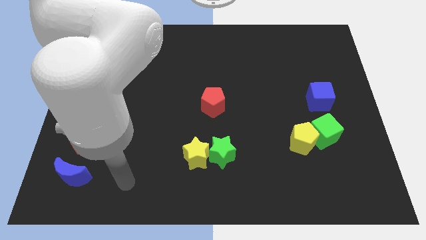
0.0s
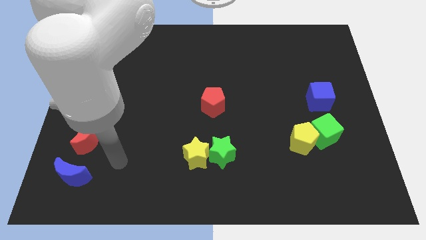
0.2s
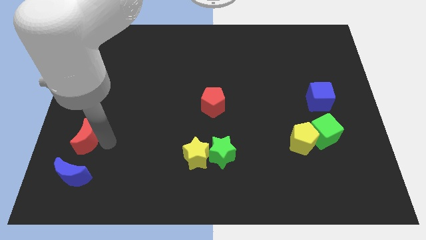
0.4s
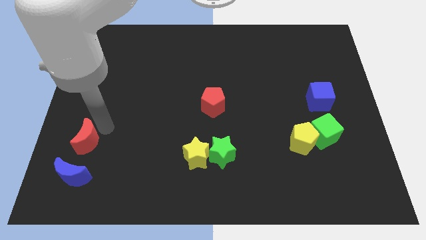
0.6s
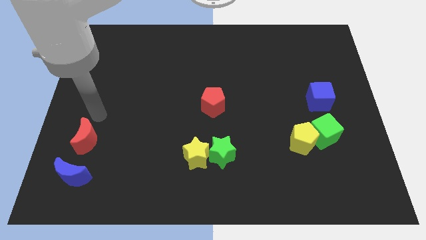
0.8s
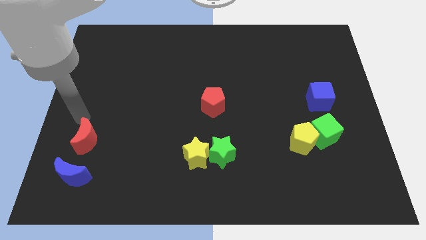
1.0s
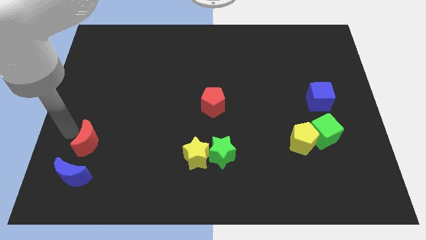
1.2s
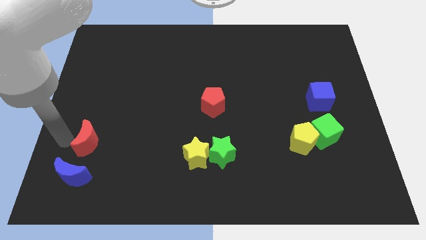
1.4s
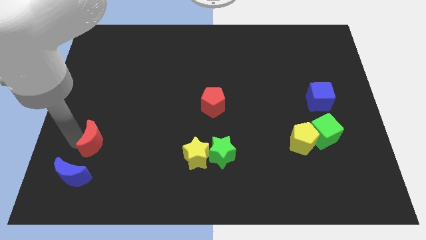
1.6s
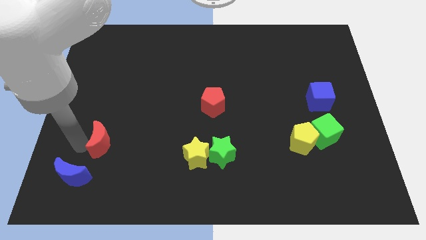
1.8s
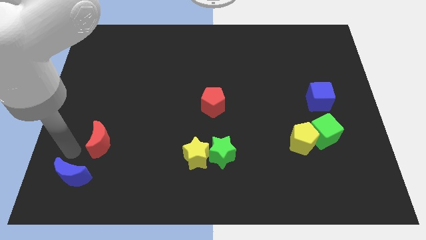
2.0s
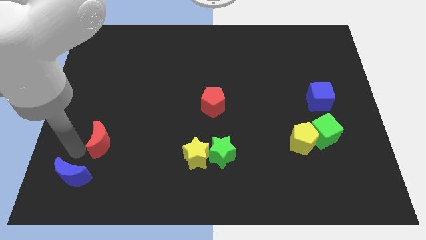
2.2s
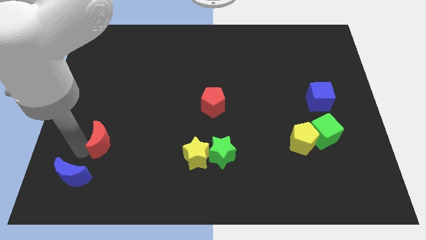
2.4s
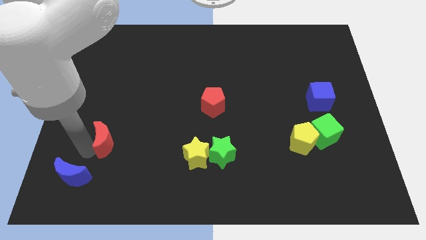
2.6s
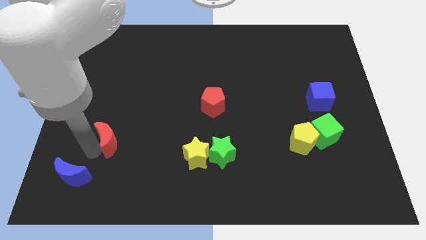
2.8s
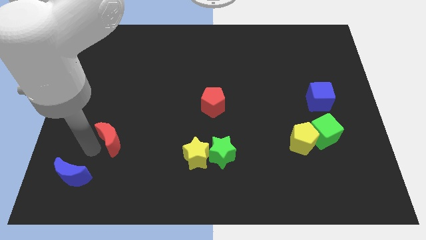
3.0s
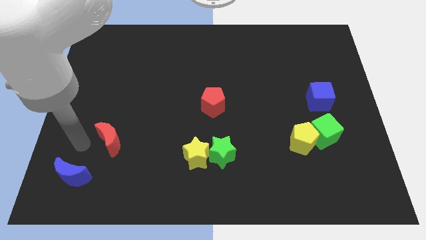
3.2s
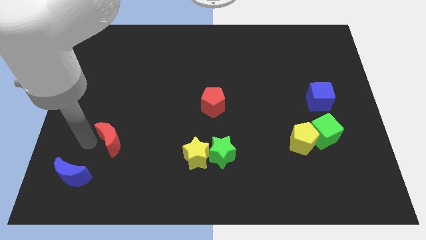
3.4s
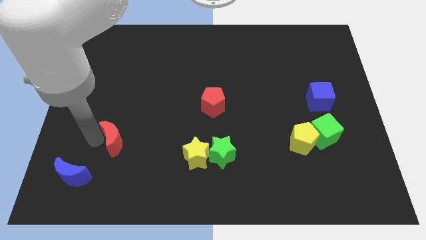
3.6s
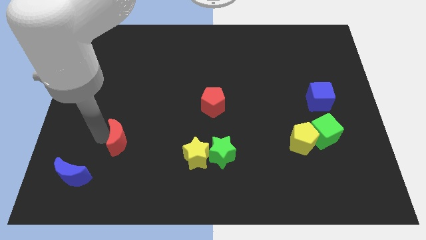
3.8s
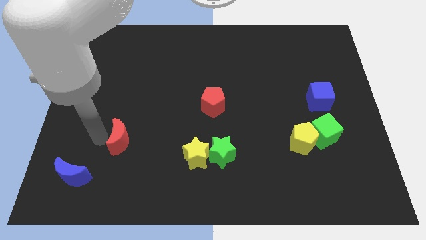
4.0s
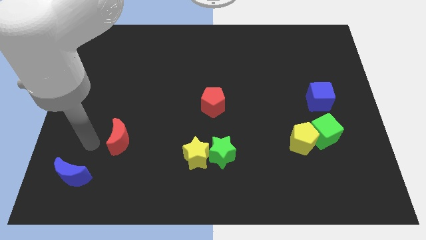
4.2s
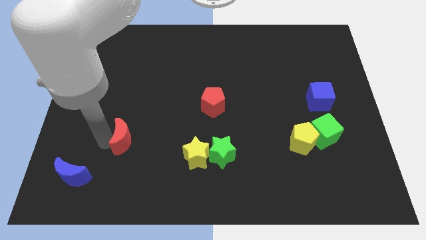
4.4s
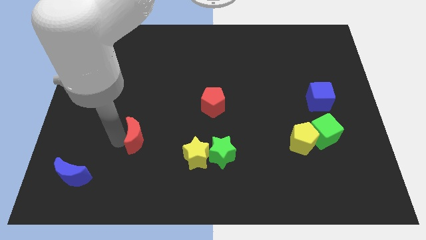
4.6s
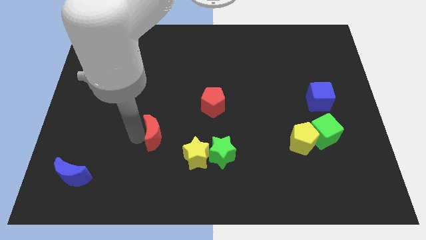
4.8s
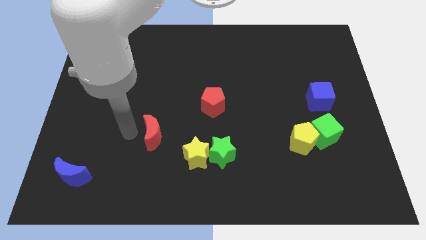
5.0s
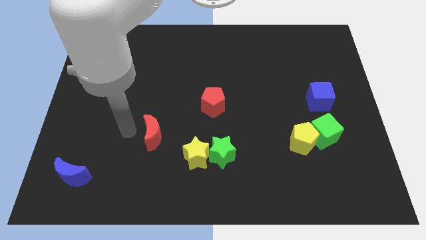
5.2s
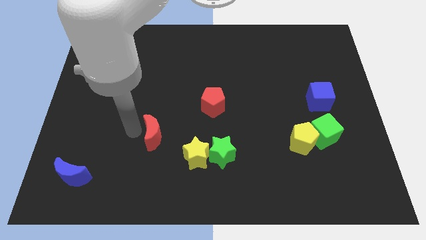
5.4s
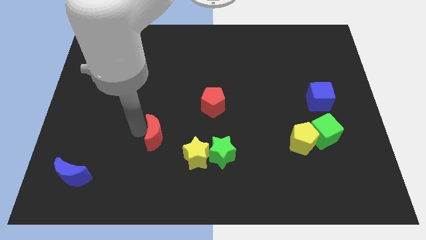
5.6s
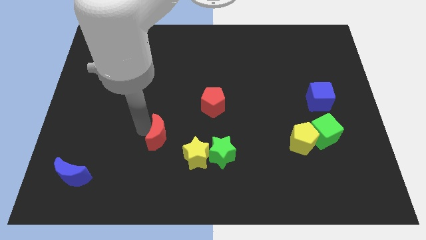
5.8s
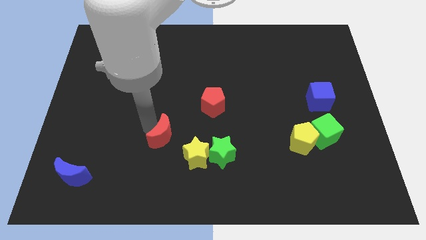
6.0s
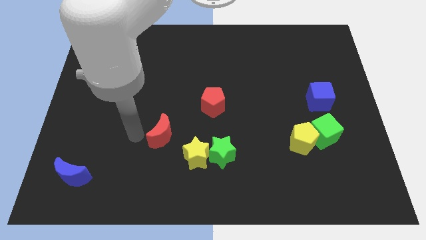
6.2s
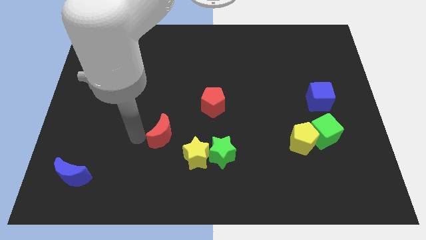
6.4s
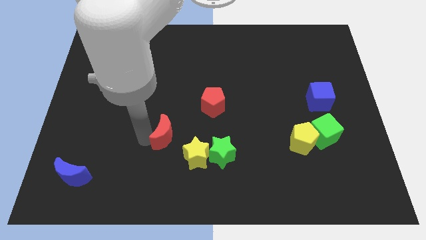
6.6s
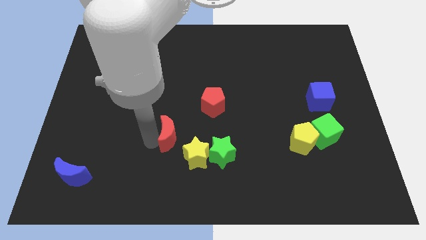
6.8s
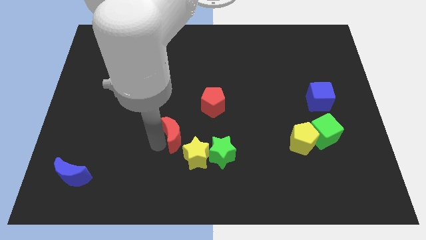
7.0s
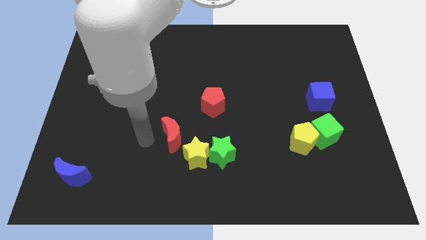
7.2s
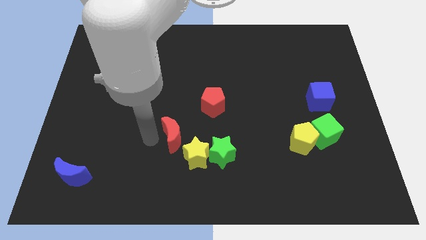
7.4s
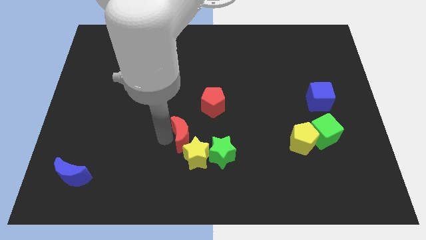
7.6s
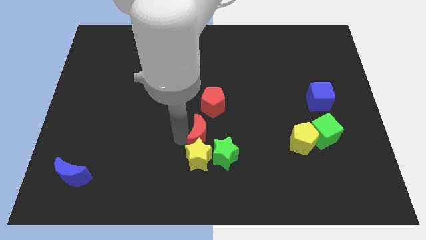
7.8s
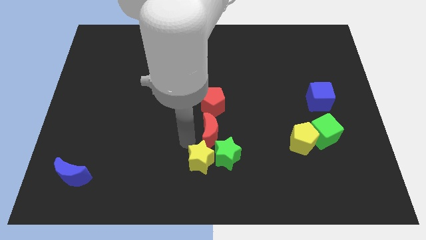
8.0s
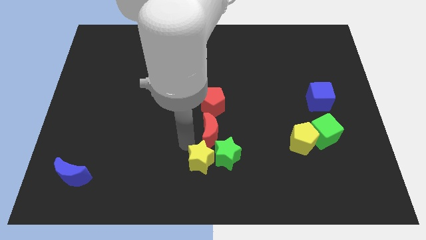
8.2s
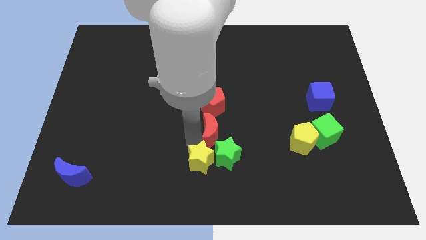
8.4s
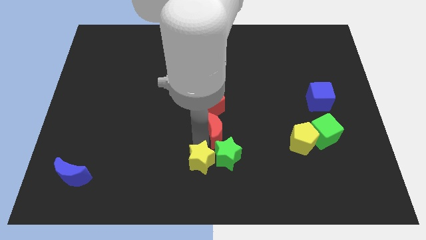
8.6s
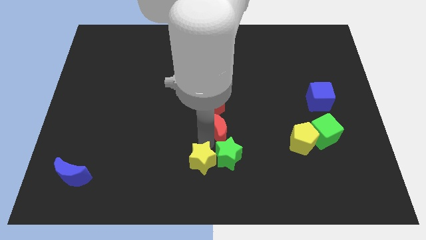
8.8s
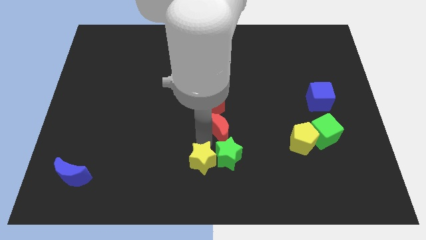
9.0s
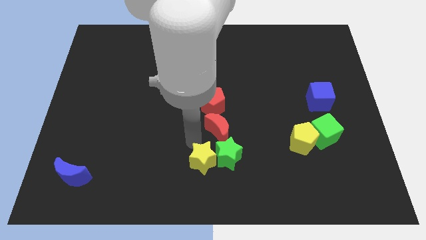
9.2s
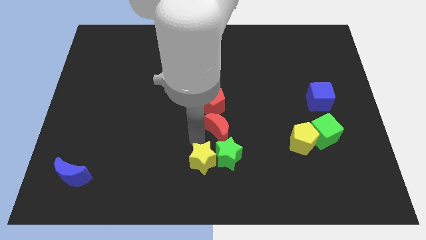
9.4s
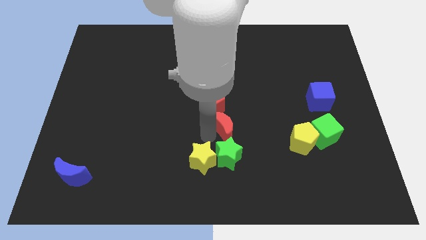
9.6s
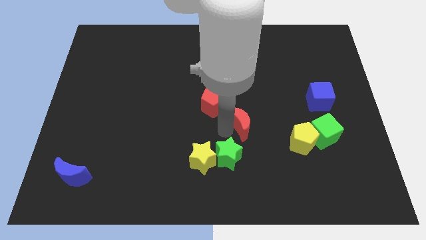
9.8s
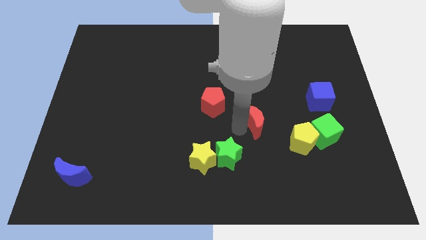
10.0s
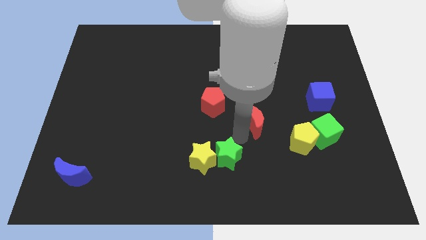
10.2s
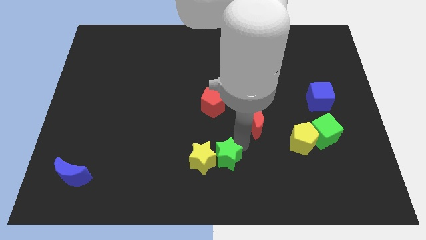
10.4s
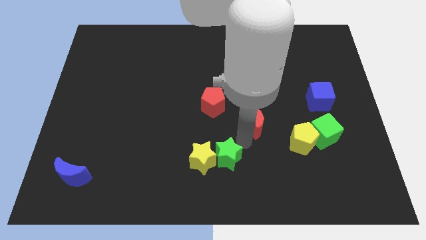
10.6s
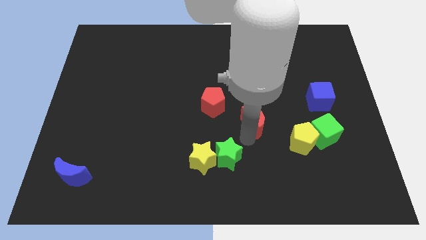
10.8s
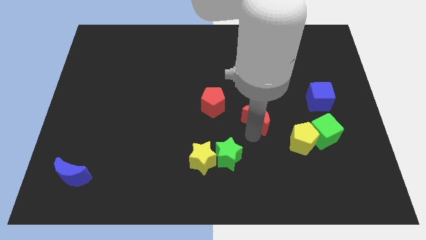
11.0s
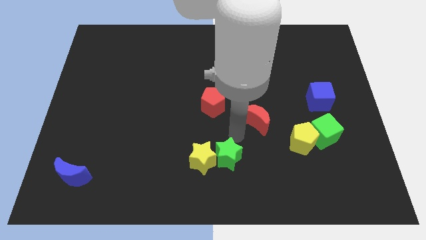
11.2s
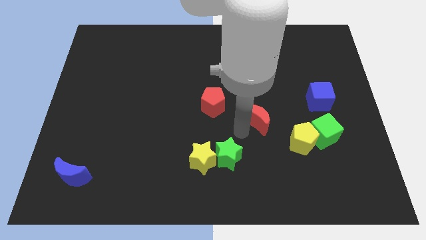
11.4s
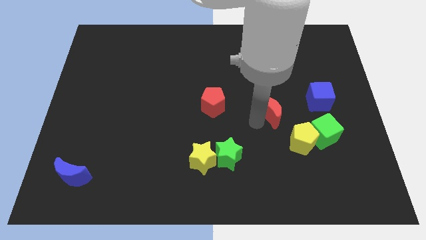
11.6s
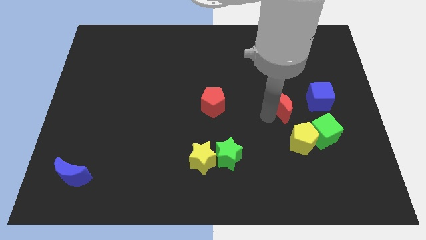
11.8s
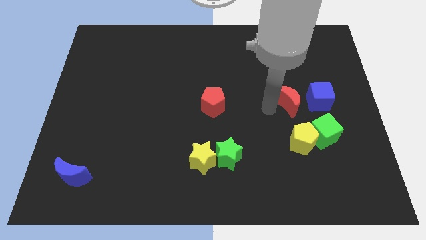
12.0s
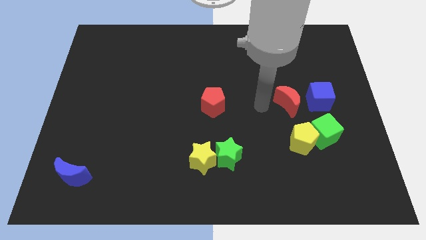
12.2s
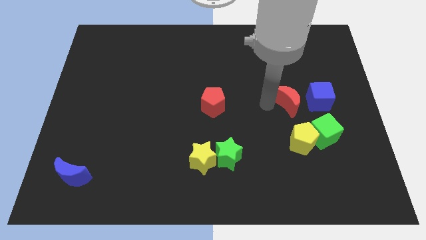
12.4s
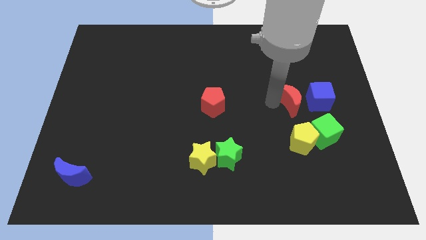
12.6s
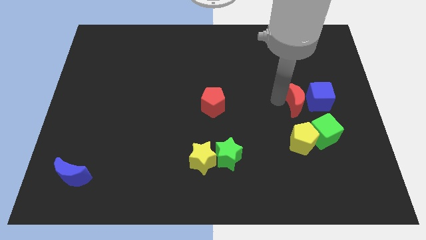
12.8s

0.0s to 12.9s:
move the red moon towards the blue cube
